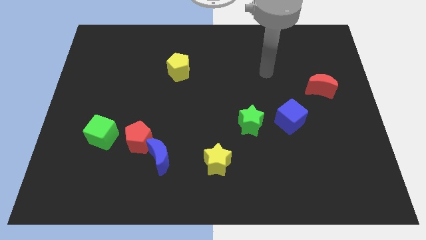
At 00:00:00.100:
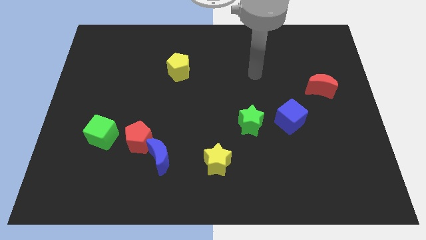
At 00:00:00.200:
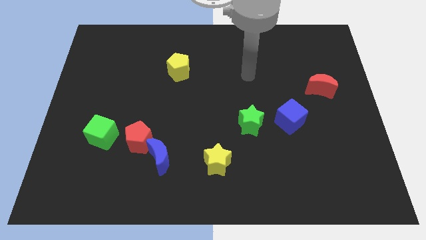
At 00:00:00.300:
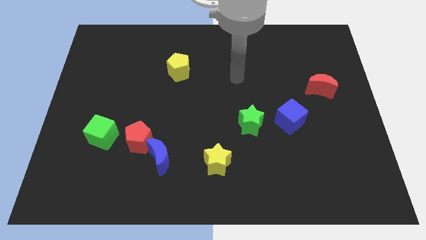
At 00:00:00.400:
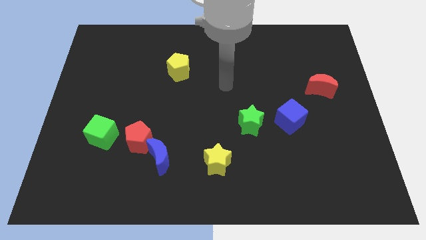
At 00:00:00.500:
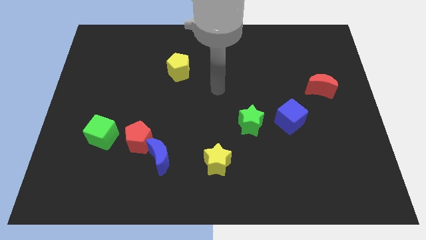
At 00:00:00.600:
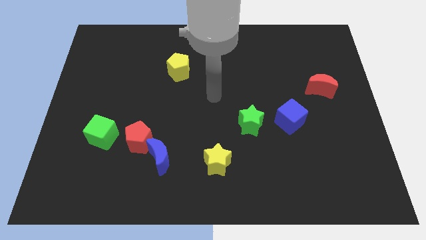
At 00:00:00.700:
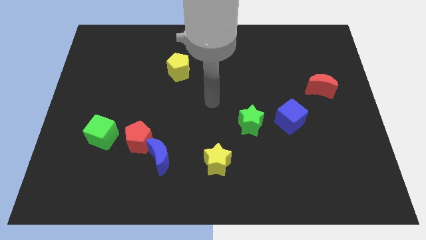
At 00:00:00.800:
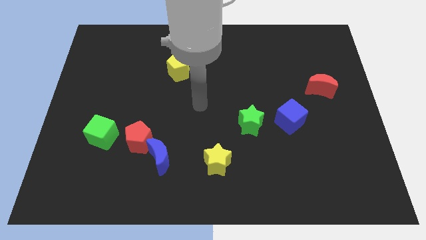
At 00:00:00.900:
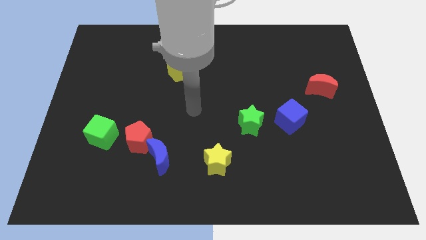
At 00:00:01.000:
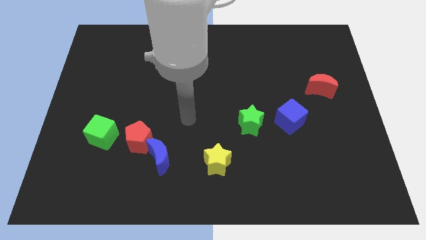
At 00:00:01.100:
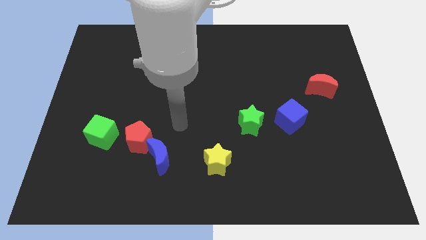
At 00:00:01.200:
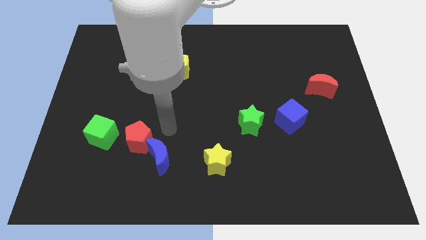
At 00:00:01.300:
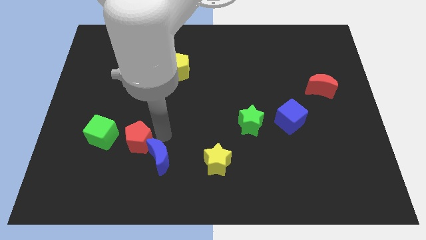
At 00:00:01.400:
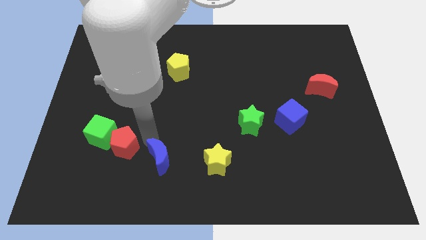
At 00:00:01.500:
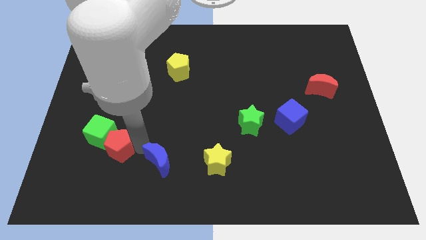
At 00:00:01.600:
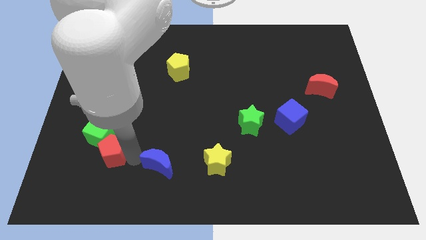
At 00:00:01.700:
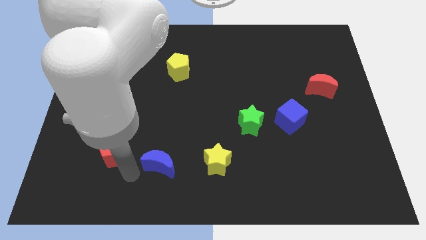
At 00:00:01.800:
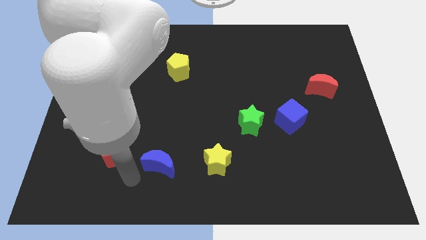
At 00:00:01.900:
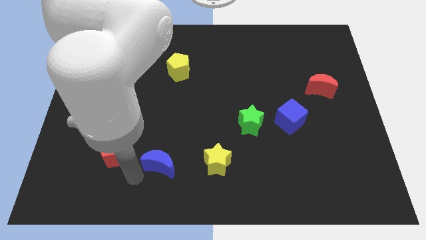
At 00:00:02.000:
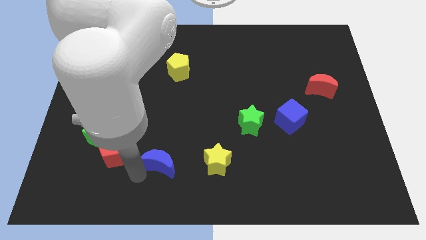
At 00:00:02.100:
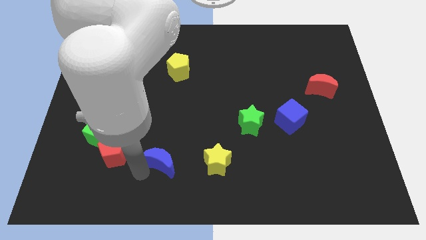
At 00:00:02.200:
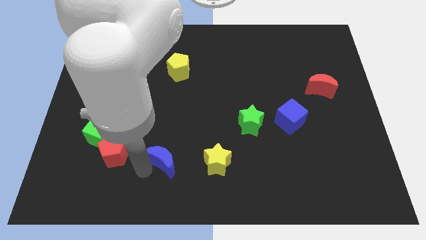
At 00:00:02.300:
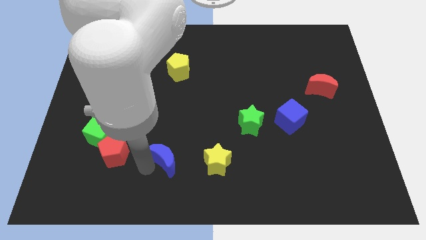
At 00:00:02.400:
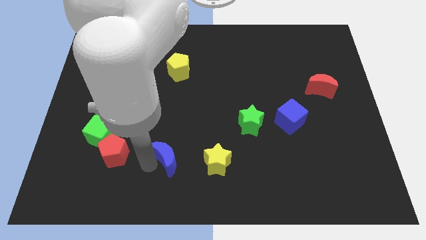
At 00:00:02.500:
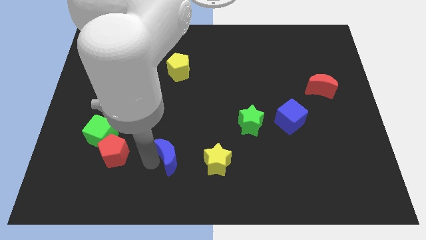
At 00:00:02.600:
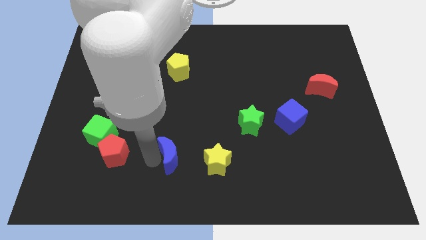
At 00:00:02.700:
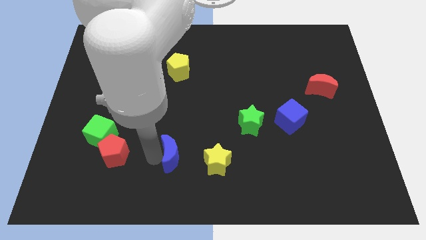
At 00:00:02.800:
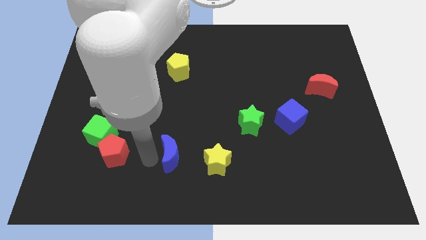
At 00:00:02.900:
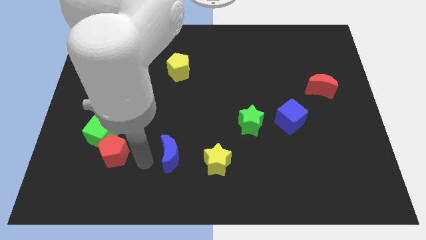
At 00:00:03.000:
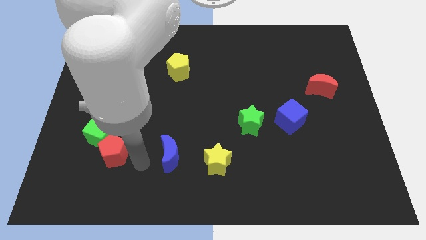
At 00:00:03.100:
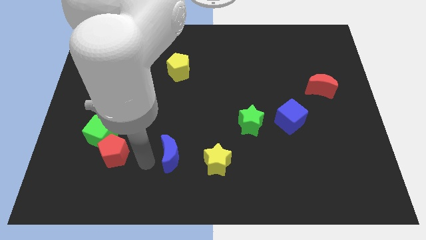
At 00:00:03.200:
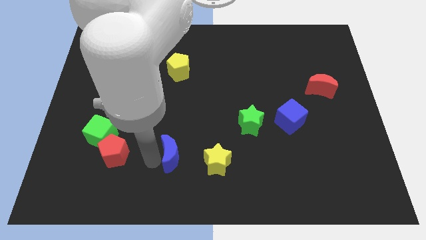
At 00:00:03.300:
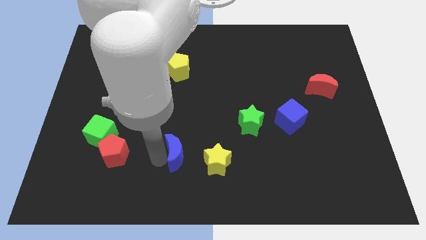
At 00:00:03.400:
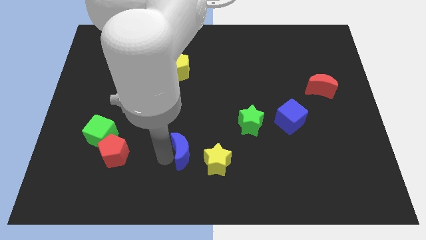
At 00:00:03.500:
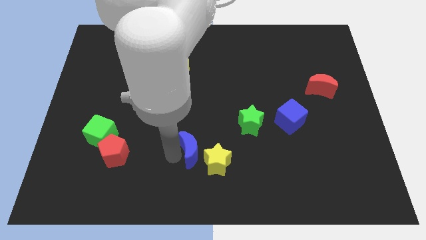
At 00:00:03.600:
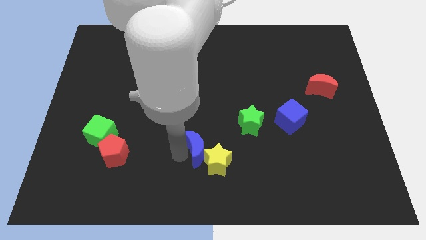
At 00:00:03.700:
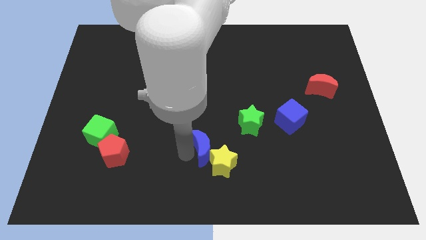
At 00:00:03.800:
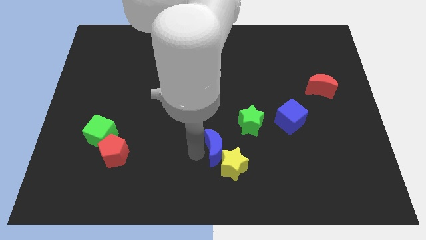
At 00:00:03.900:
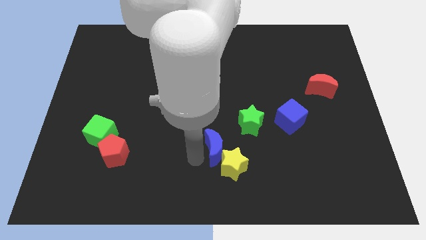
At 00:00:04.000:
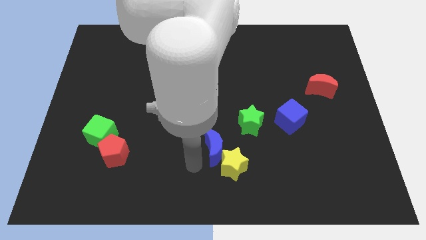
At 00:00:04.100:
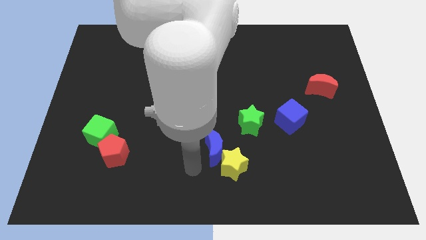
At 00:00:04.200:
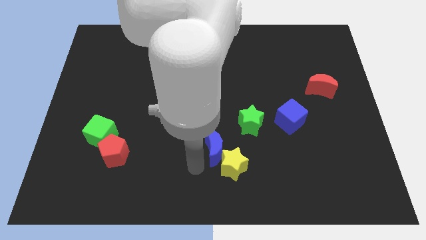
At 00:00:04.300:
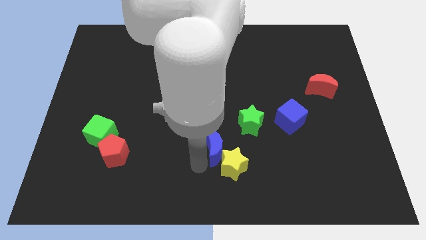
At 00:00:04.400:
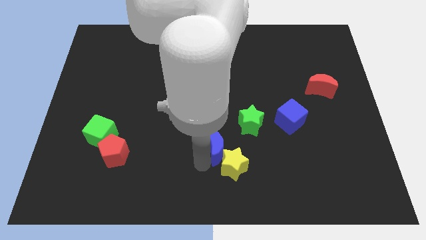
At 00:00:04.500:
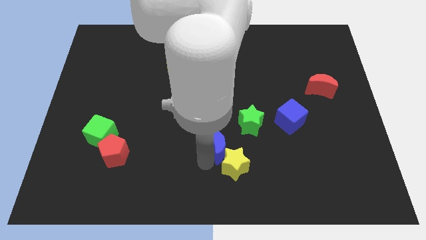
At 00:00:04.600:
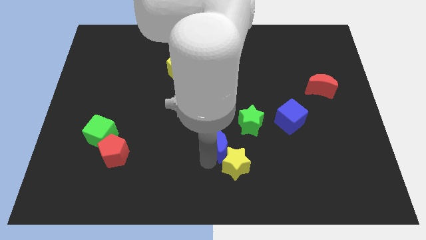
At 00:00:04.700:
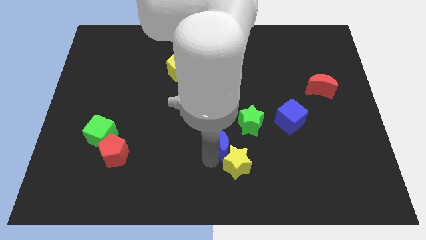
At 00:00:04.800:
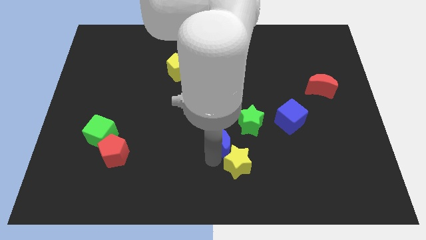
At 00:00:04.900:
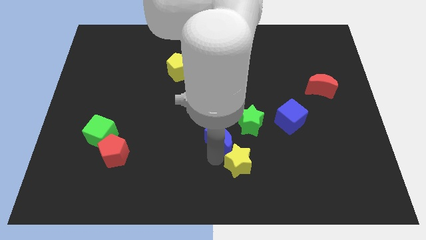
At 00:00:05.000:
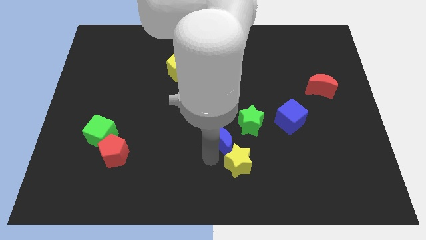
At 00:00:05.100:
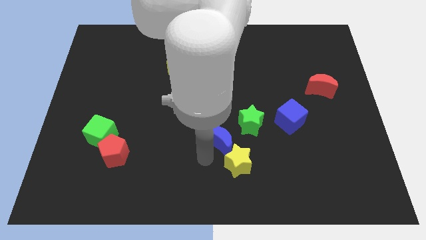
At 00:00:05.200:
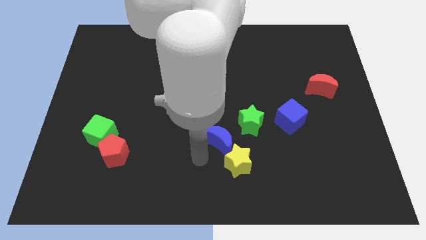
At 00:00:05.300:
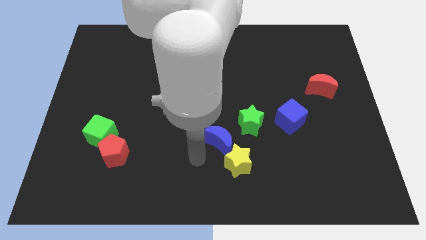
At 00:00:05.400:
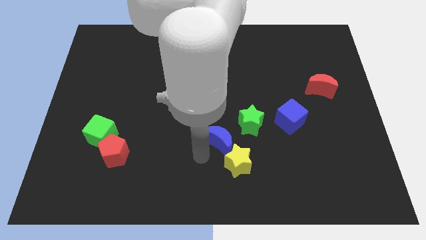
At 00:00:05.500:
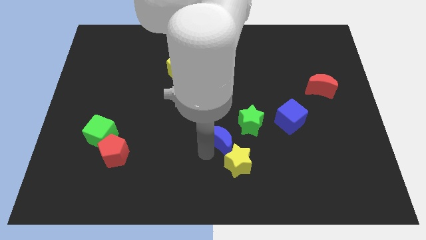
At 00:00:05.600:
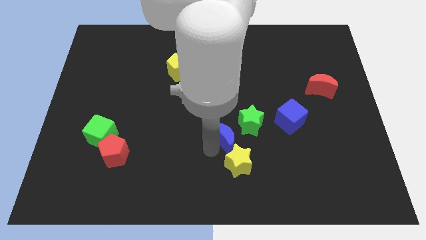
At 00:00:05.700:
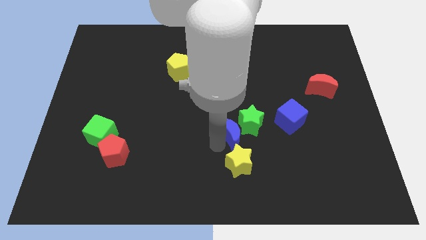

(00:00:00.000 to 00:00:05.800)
put the blue moon to the green star

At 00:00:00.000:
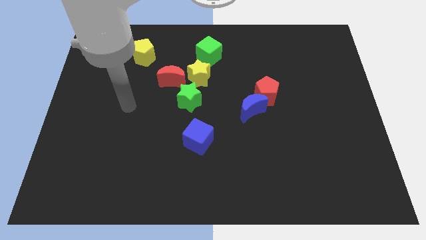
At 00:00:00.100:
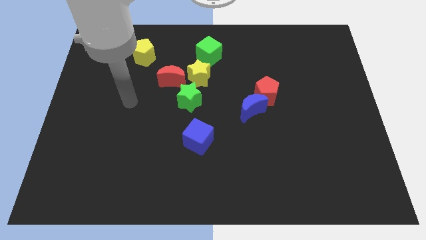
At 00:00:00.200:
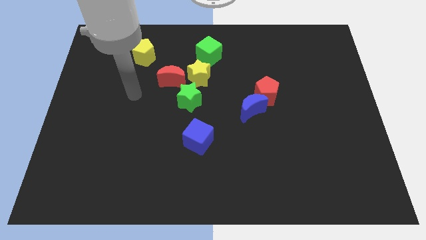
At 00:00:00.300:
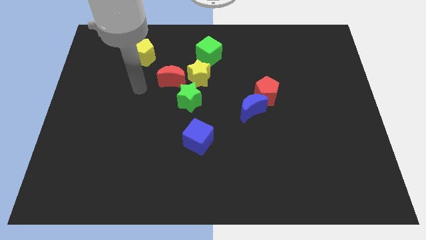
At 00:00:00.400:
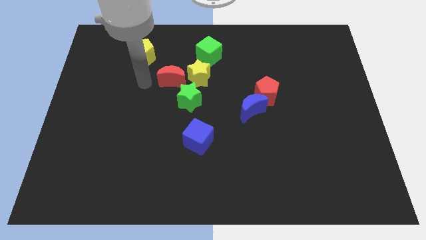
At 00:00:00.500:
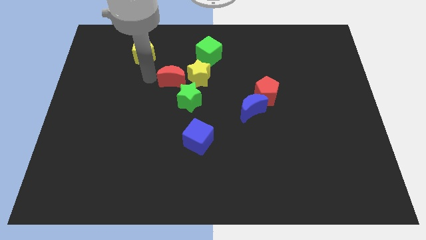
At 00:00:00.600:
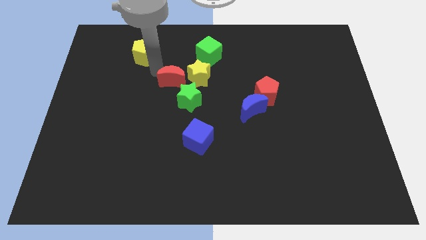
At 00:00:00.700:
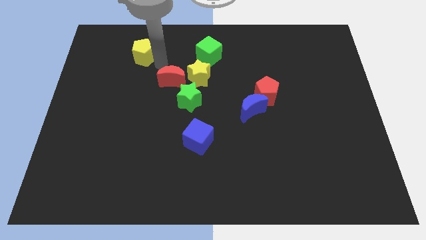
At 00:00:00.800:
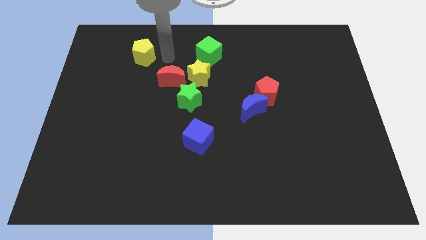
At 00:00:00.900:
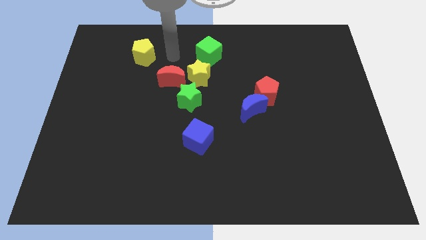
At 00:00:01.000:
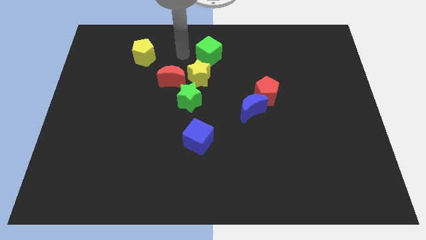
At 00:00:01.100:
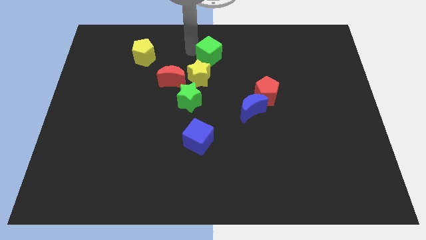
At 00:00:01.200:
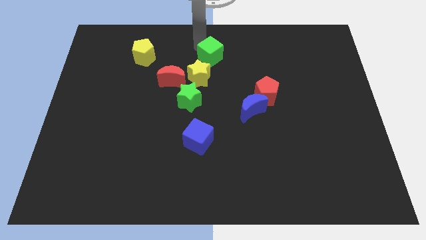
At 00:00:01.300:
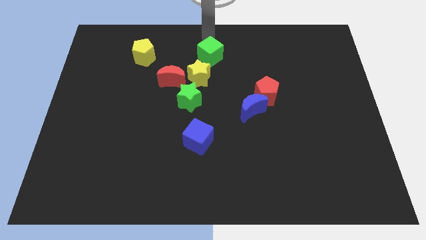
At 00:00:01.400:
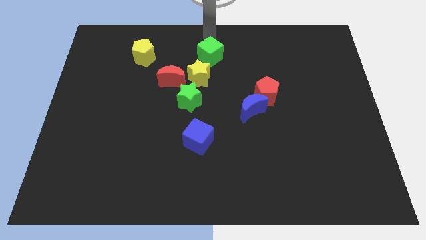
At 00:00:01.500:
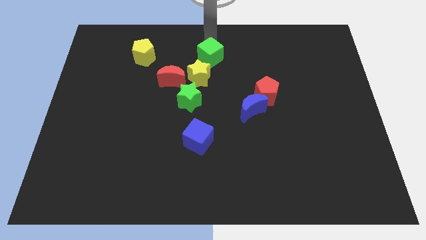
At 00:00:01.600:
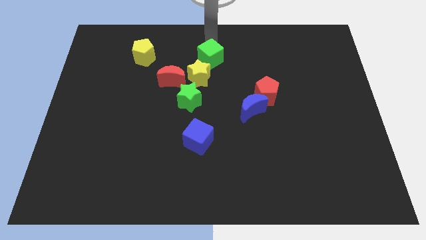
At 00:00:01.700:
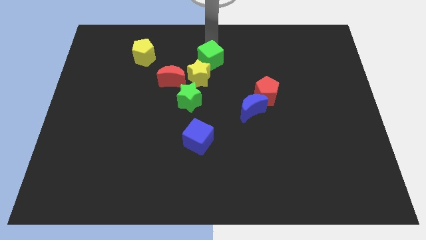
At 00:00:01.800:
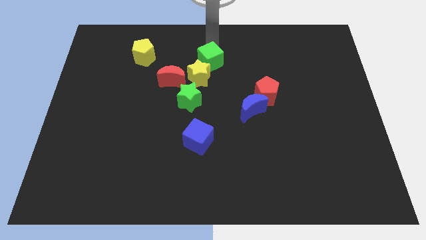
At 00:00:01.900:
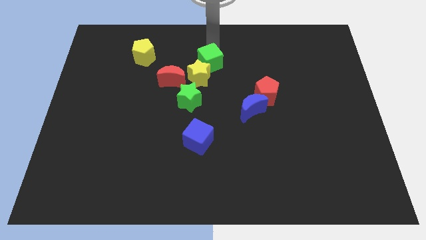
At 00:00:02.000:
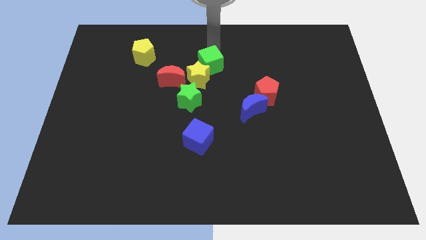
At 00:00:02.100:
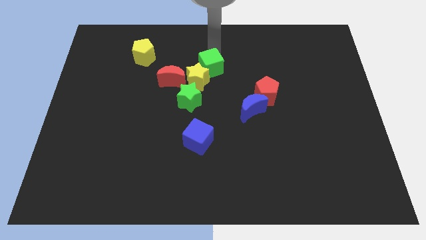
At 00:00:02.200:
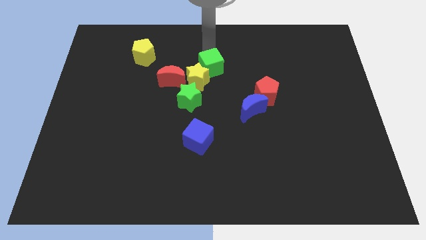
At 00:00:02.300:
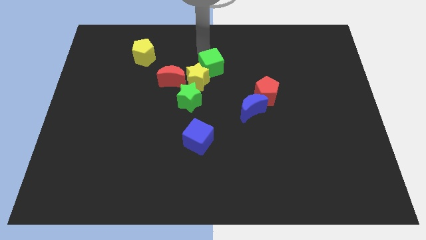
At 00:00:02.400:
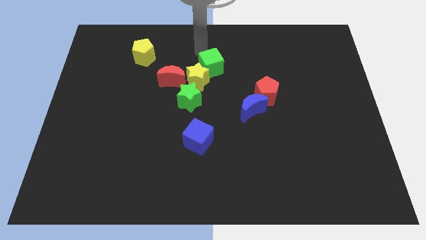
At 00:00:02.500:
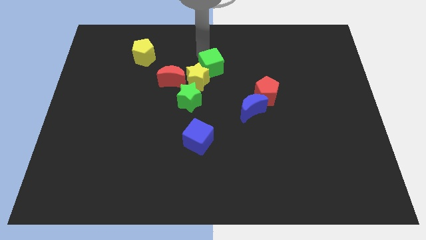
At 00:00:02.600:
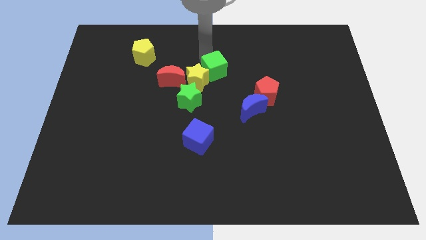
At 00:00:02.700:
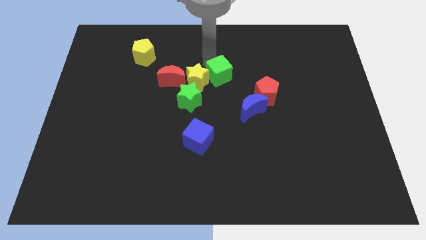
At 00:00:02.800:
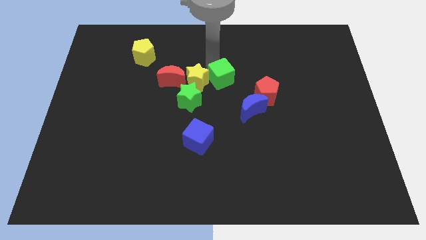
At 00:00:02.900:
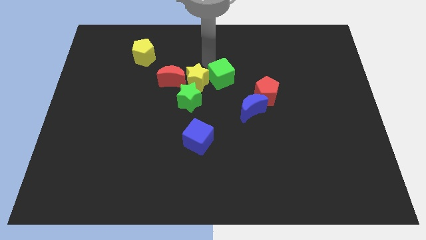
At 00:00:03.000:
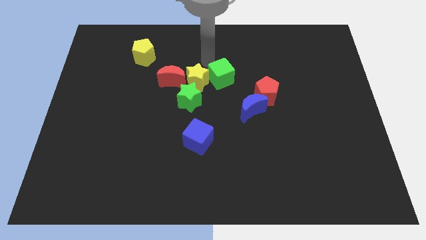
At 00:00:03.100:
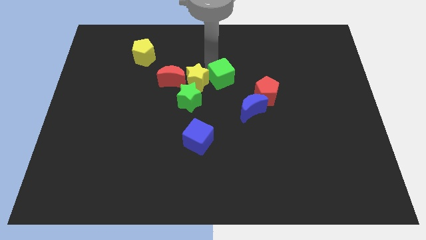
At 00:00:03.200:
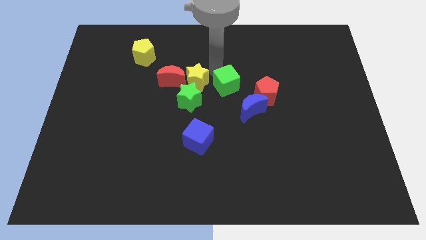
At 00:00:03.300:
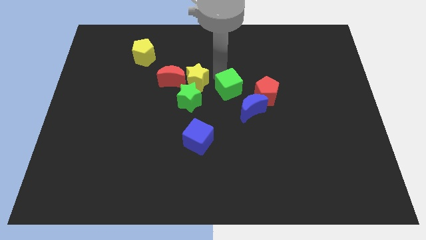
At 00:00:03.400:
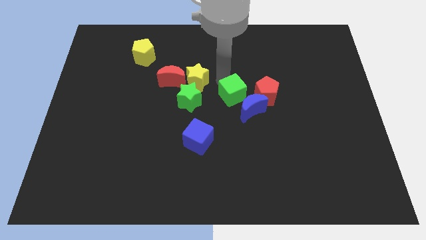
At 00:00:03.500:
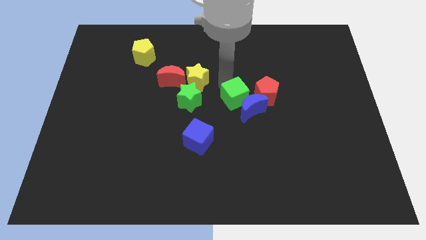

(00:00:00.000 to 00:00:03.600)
put the green cube to the blue moon
